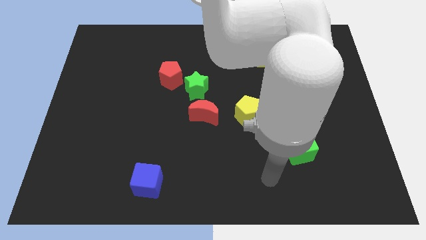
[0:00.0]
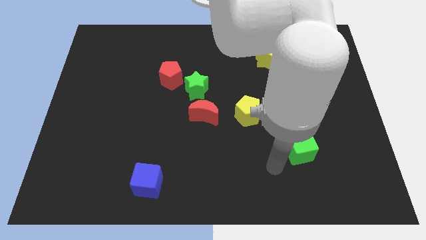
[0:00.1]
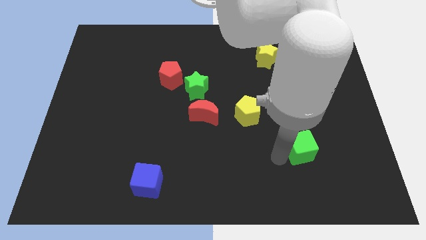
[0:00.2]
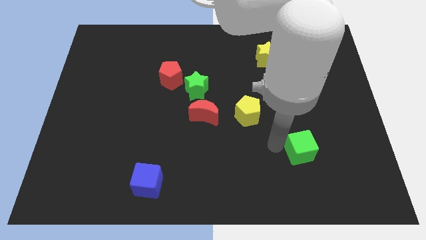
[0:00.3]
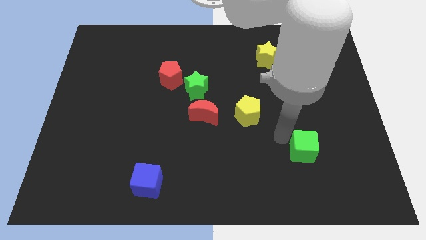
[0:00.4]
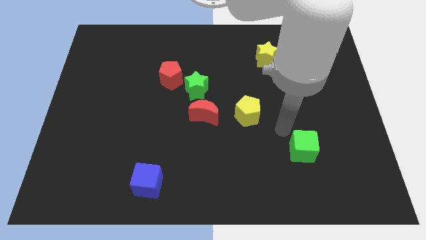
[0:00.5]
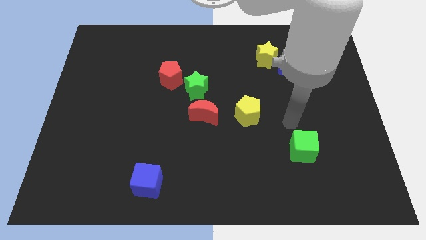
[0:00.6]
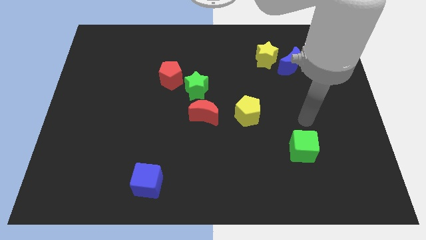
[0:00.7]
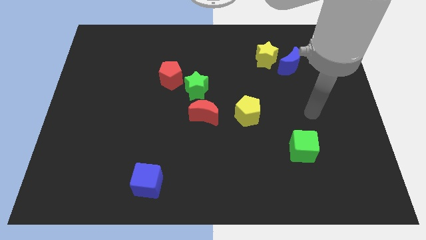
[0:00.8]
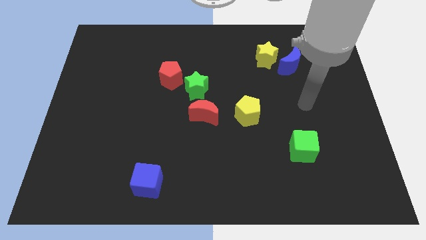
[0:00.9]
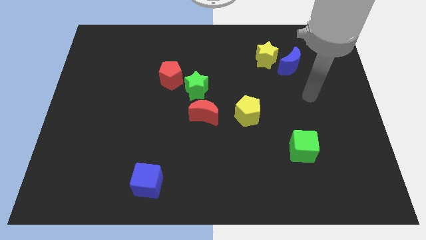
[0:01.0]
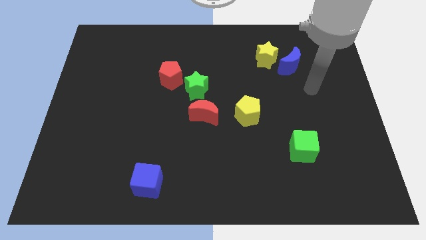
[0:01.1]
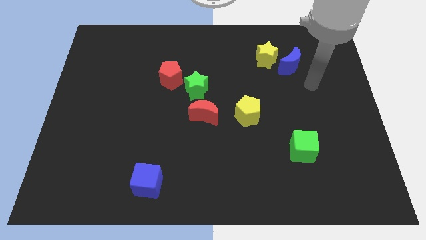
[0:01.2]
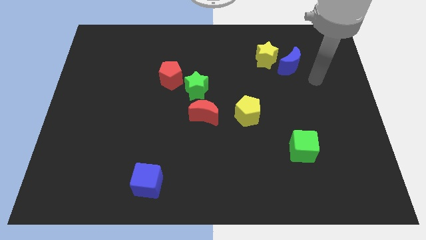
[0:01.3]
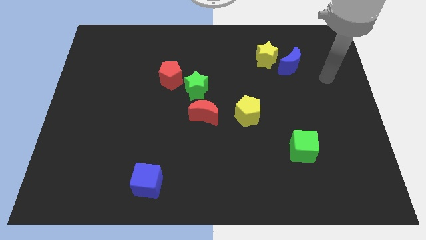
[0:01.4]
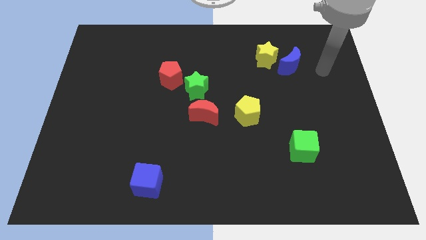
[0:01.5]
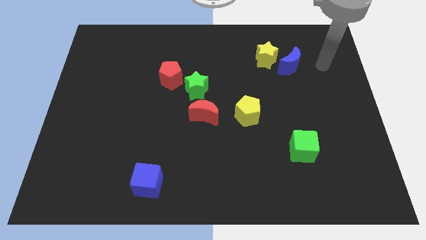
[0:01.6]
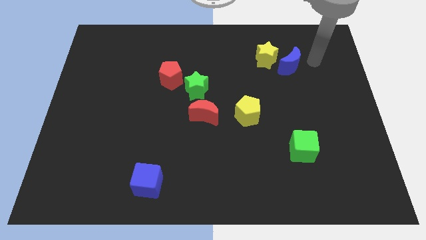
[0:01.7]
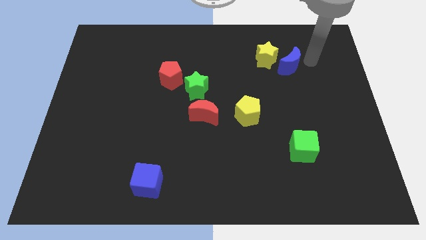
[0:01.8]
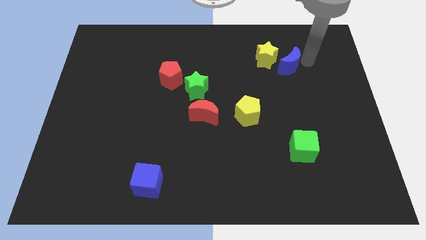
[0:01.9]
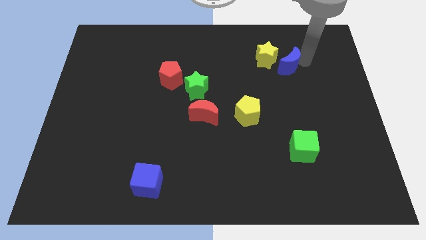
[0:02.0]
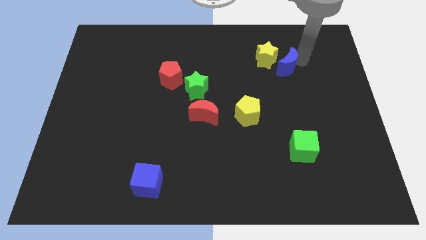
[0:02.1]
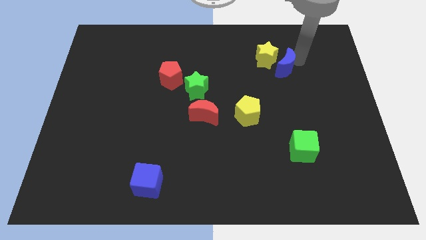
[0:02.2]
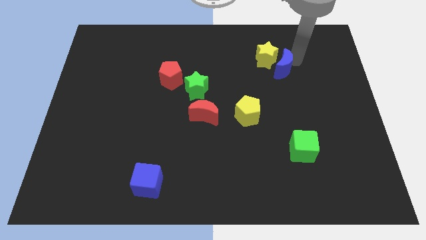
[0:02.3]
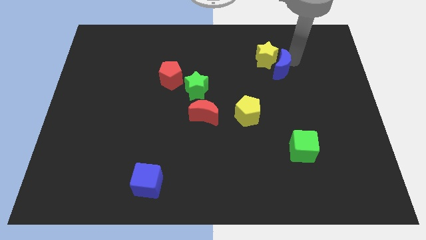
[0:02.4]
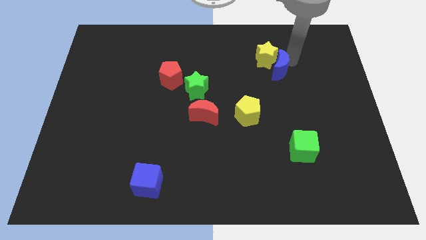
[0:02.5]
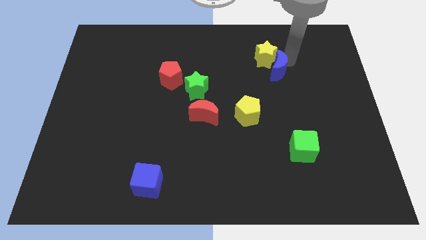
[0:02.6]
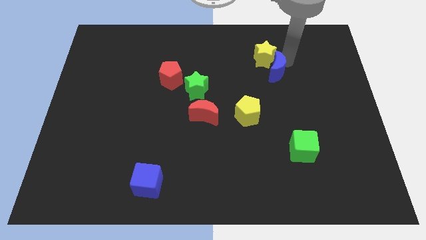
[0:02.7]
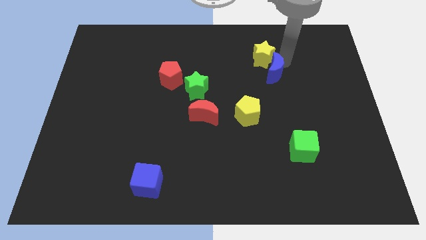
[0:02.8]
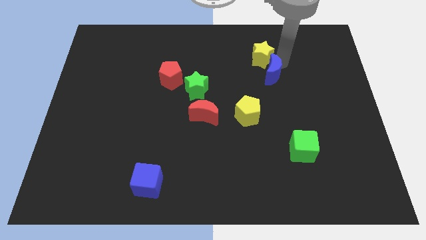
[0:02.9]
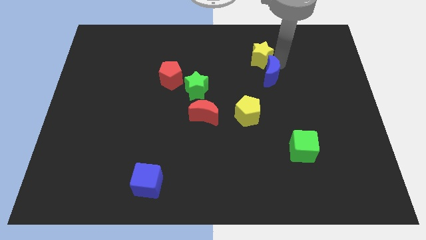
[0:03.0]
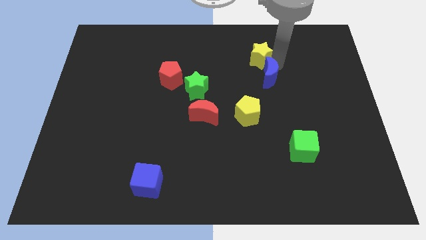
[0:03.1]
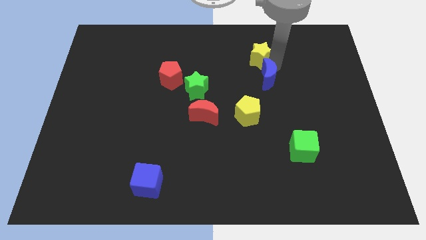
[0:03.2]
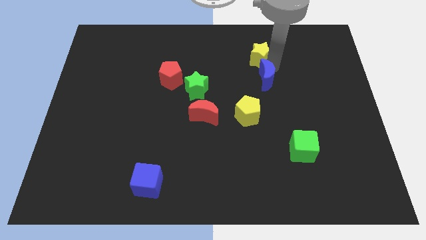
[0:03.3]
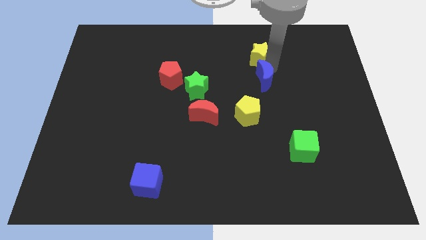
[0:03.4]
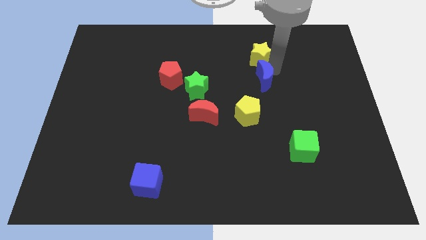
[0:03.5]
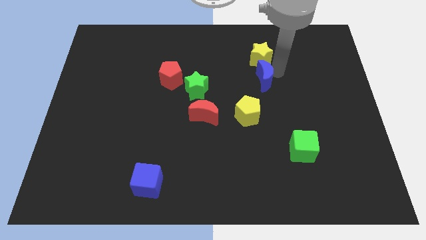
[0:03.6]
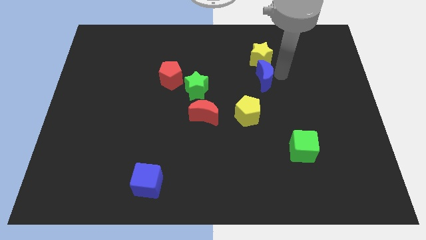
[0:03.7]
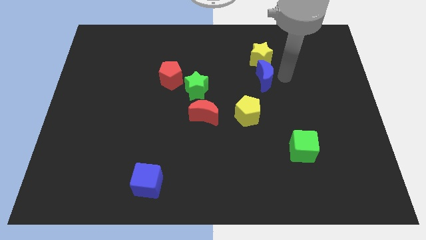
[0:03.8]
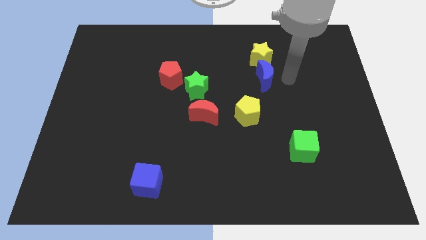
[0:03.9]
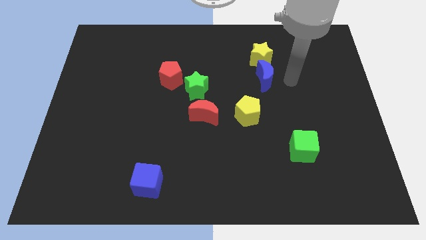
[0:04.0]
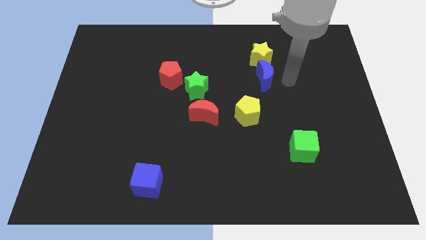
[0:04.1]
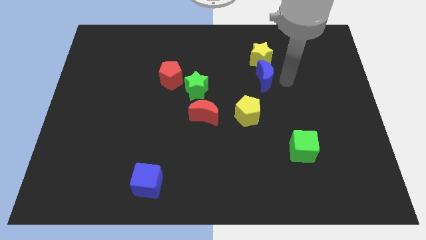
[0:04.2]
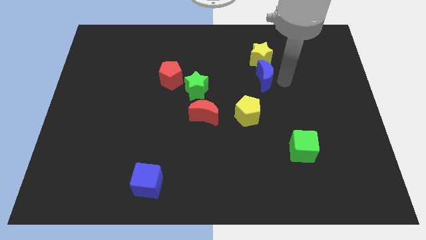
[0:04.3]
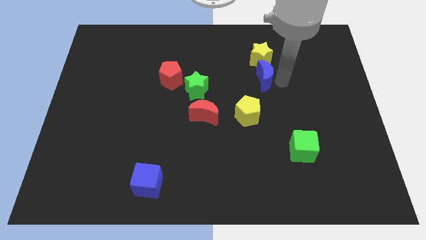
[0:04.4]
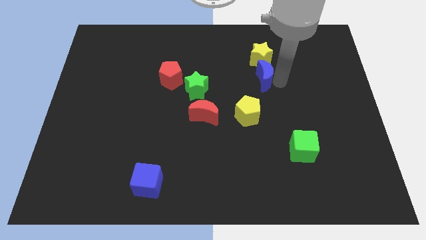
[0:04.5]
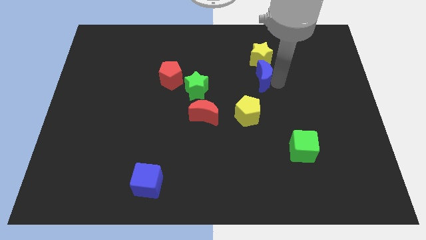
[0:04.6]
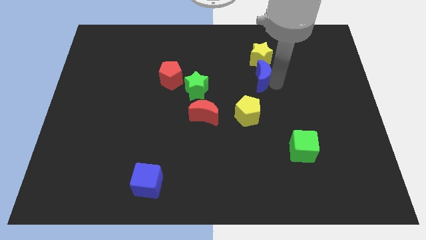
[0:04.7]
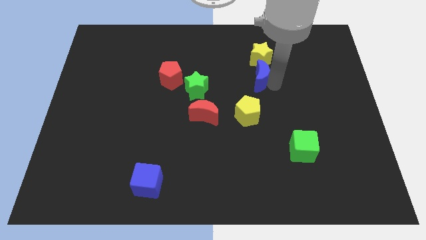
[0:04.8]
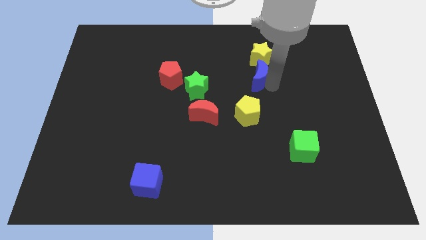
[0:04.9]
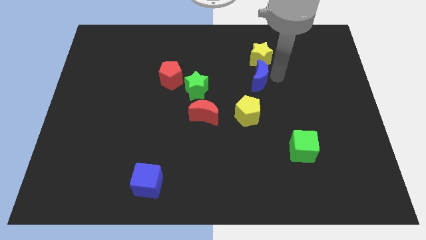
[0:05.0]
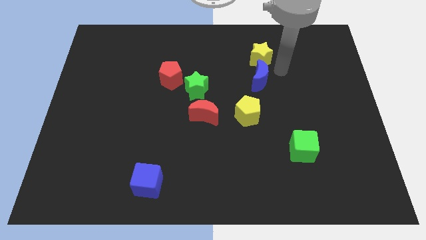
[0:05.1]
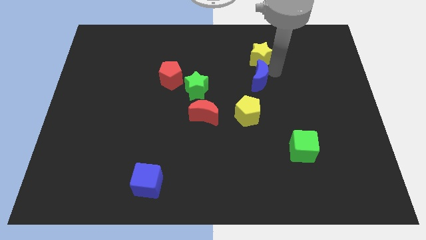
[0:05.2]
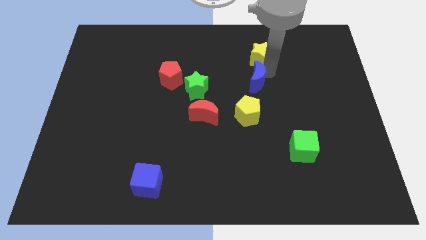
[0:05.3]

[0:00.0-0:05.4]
move the blue moon to the center

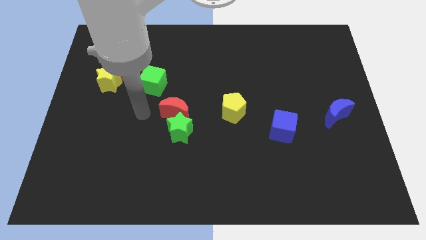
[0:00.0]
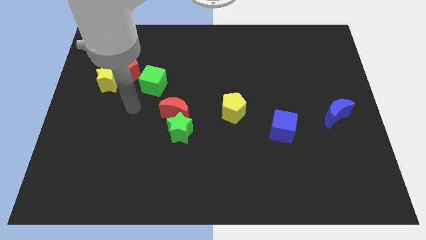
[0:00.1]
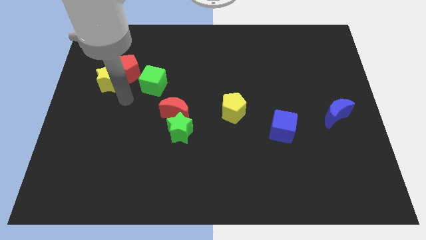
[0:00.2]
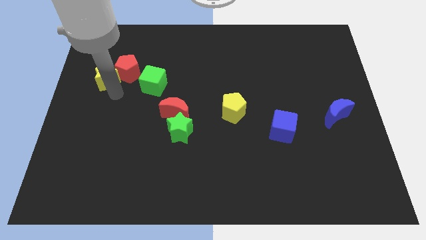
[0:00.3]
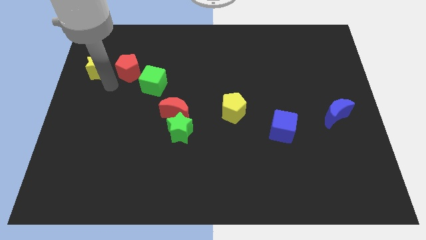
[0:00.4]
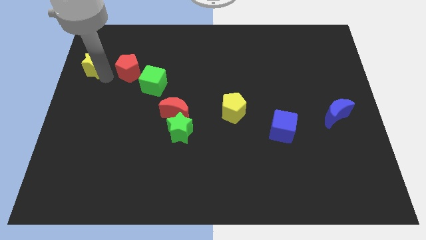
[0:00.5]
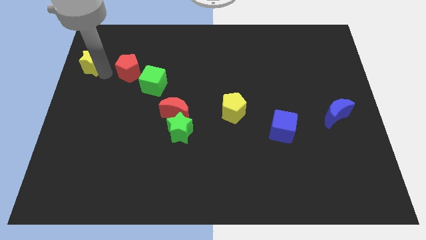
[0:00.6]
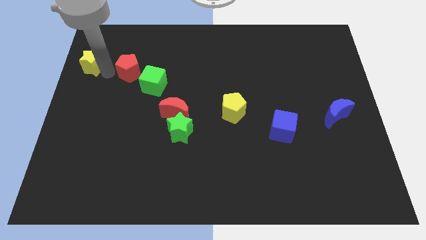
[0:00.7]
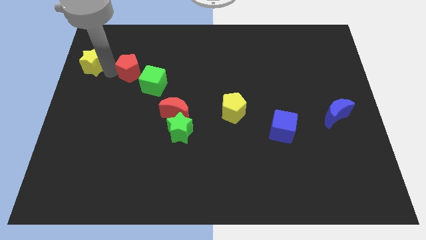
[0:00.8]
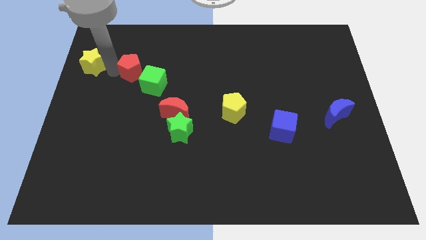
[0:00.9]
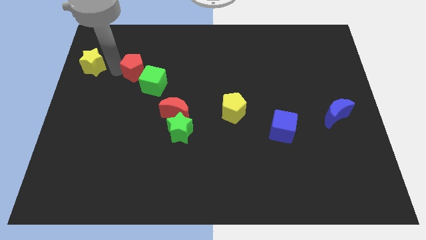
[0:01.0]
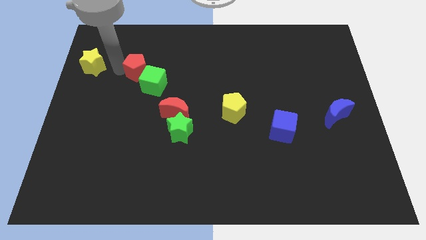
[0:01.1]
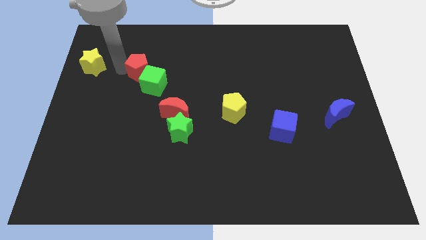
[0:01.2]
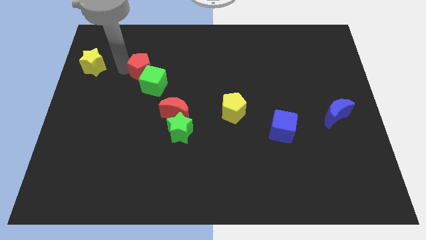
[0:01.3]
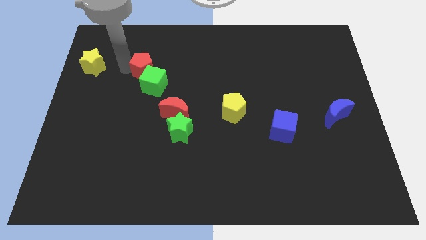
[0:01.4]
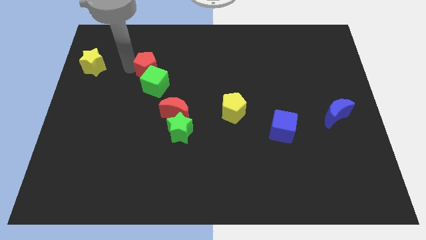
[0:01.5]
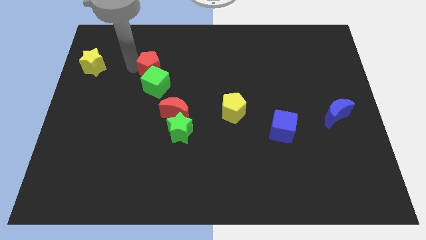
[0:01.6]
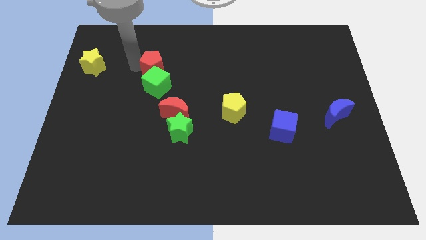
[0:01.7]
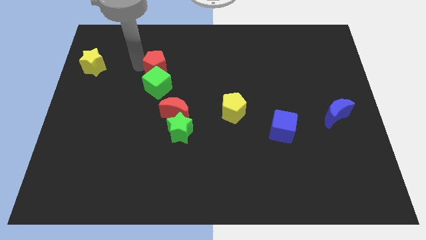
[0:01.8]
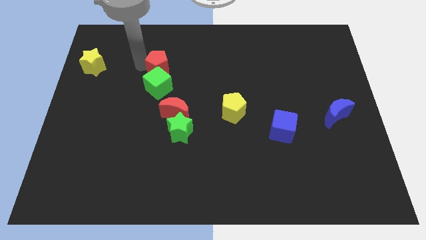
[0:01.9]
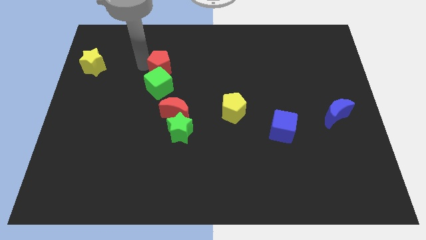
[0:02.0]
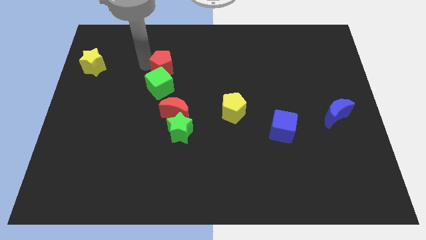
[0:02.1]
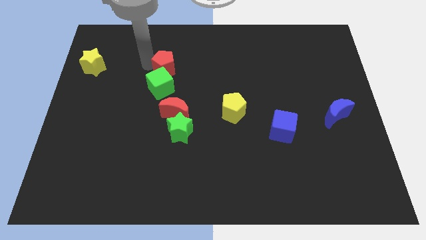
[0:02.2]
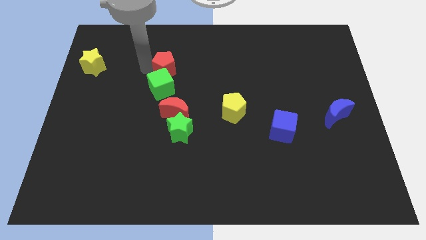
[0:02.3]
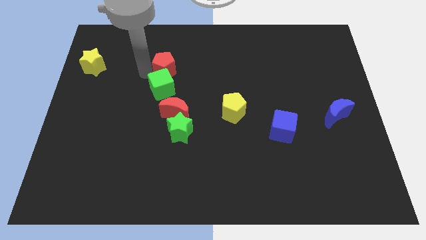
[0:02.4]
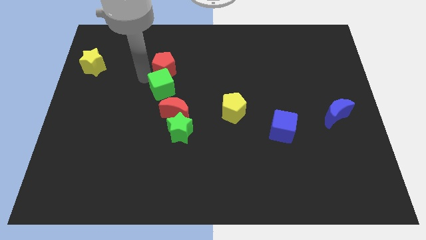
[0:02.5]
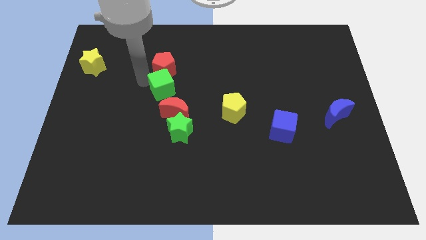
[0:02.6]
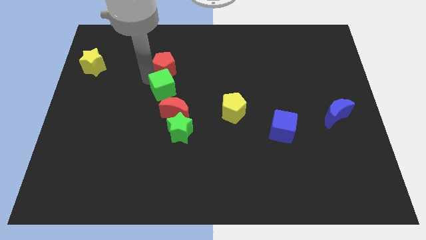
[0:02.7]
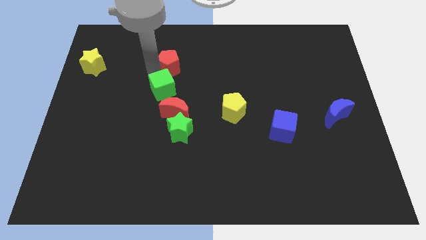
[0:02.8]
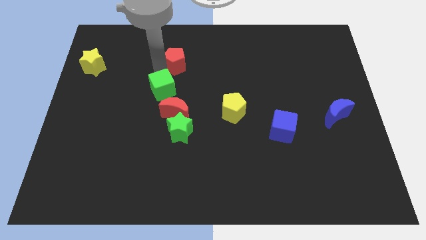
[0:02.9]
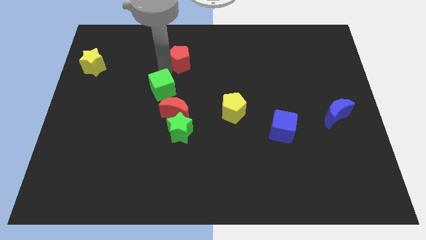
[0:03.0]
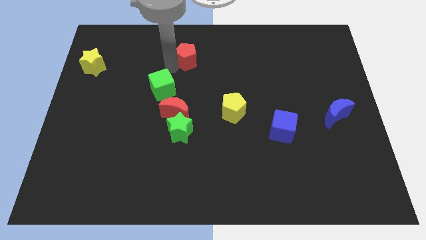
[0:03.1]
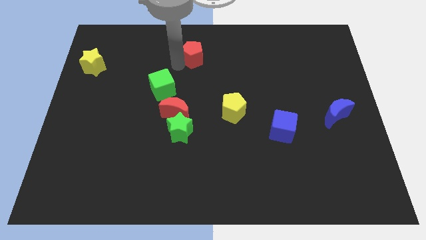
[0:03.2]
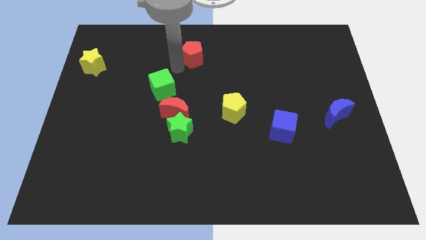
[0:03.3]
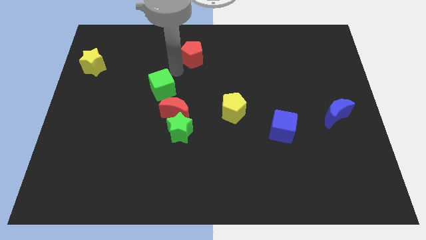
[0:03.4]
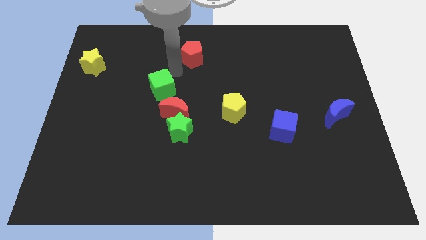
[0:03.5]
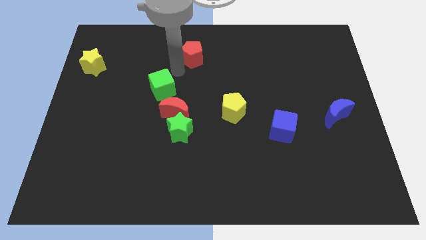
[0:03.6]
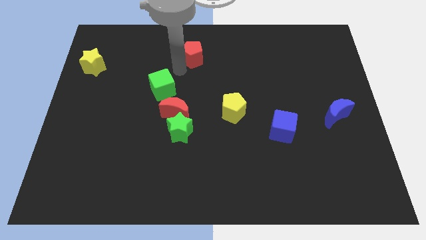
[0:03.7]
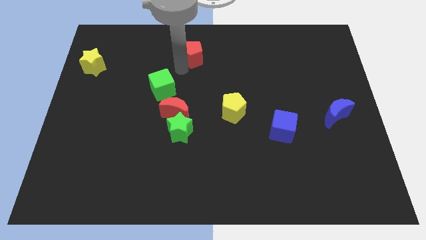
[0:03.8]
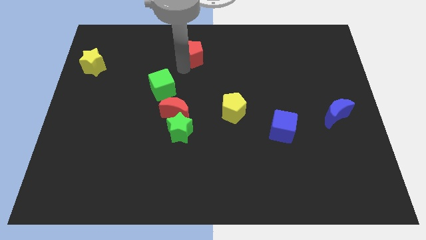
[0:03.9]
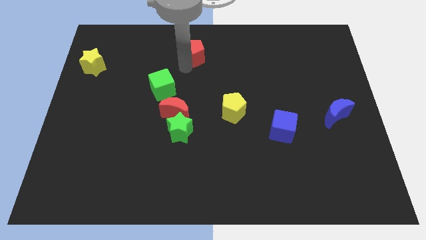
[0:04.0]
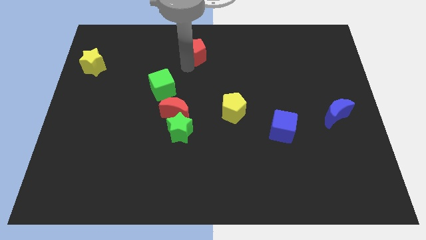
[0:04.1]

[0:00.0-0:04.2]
put the red pentagon to the towards your base
